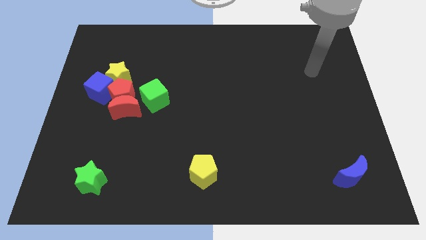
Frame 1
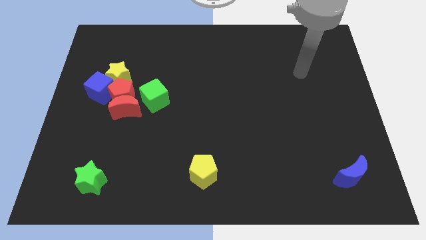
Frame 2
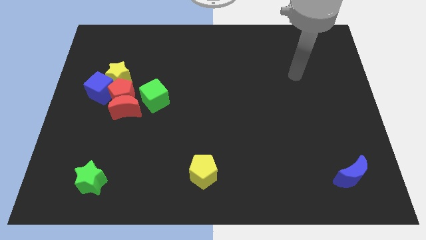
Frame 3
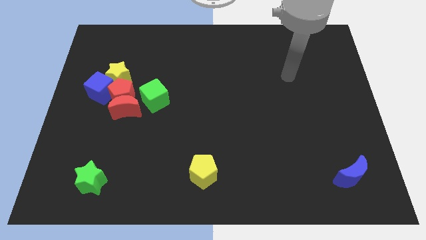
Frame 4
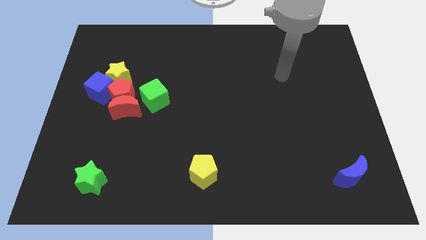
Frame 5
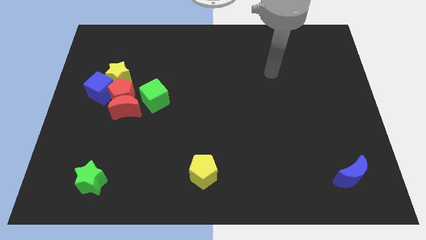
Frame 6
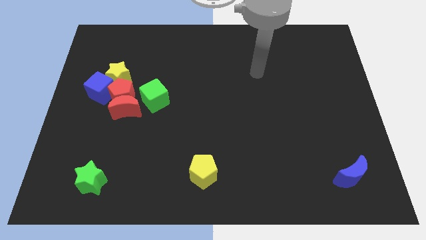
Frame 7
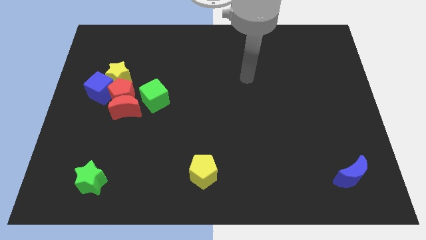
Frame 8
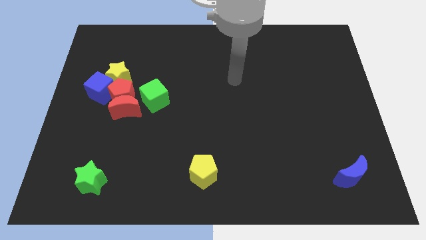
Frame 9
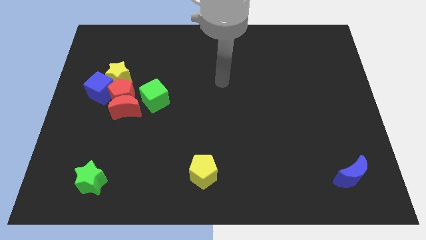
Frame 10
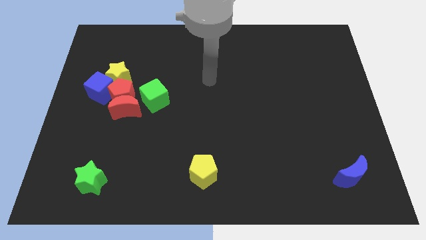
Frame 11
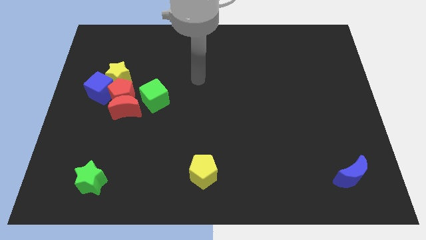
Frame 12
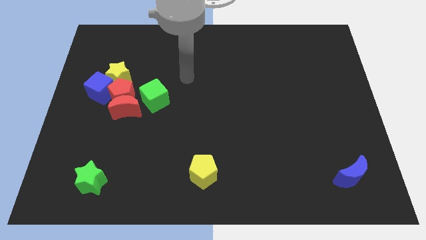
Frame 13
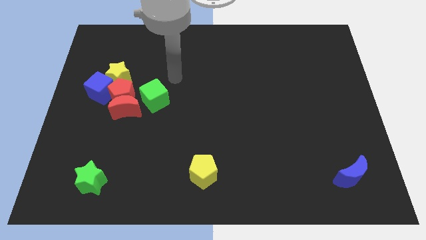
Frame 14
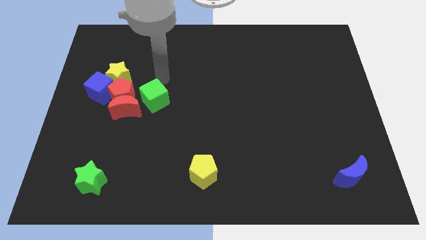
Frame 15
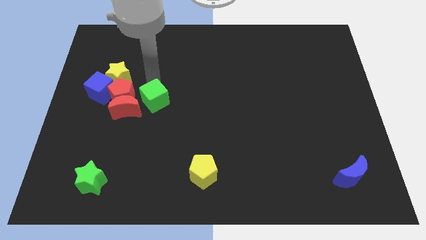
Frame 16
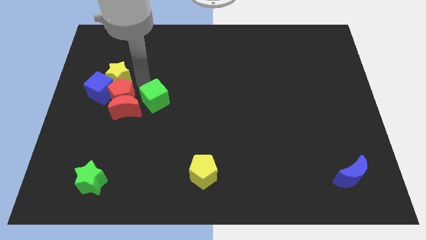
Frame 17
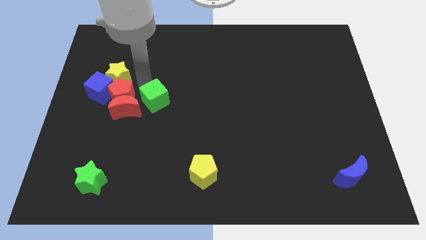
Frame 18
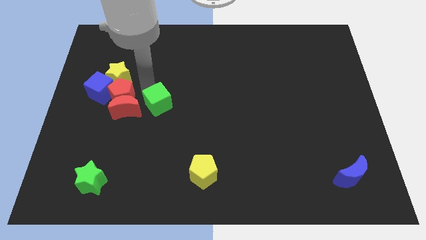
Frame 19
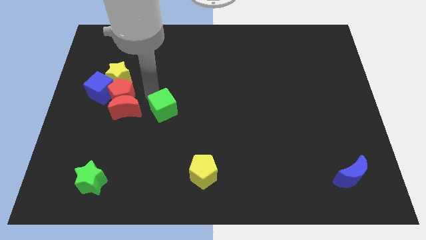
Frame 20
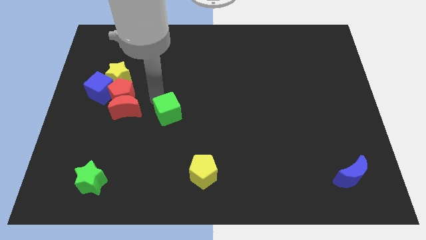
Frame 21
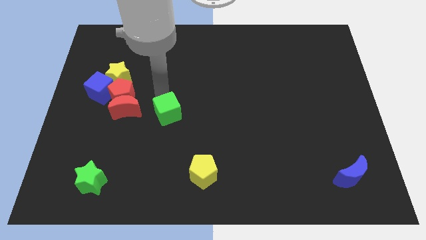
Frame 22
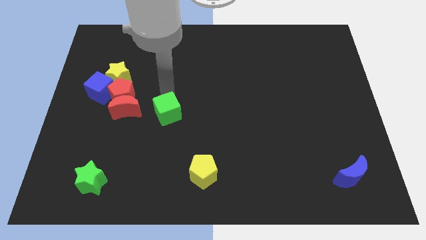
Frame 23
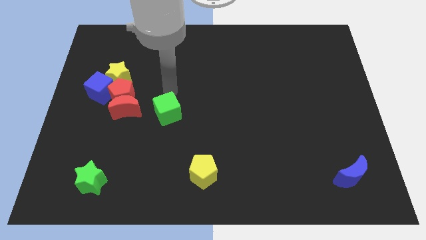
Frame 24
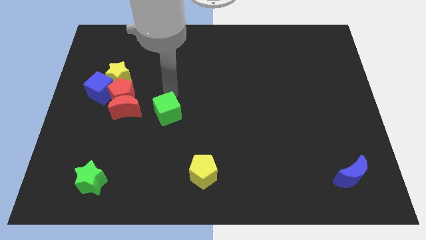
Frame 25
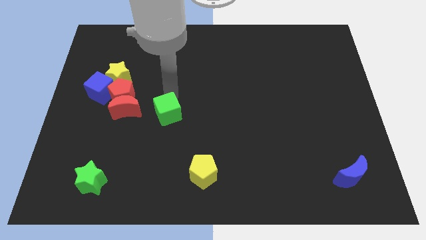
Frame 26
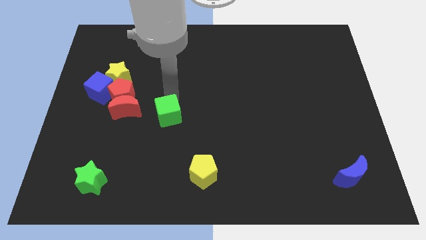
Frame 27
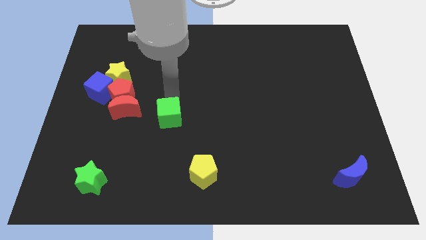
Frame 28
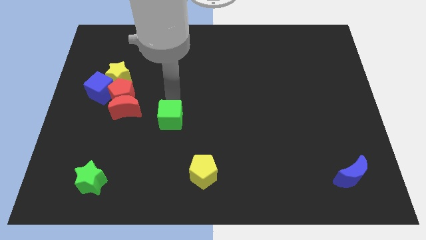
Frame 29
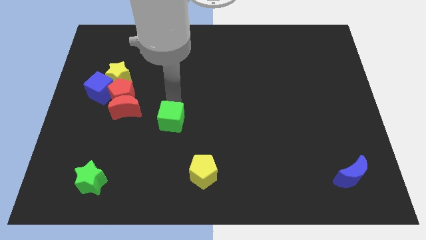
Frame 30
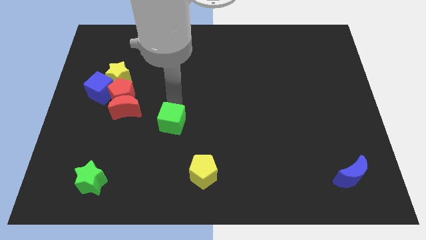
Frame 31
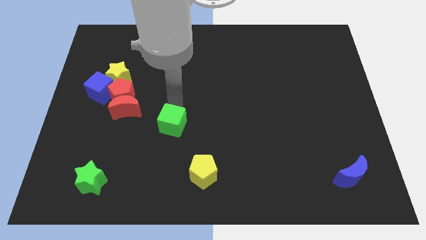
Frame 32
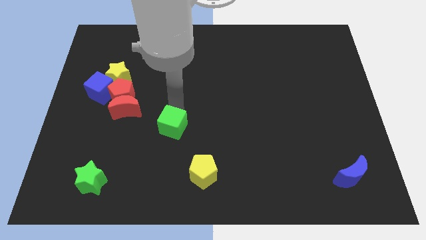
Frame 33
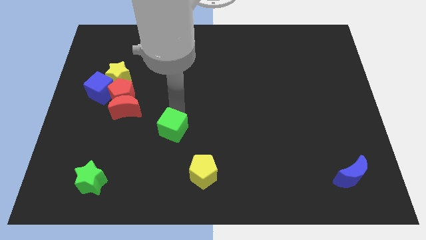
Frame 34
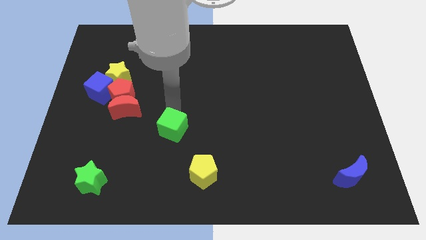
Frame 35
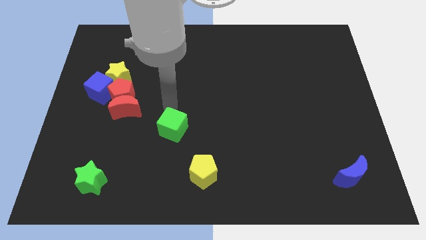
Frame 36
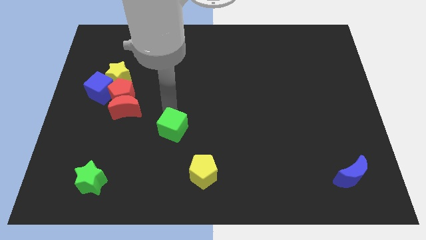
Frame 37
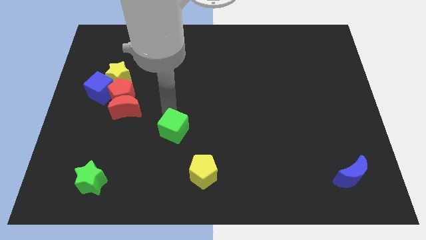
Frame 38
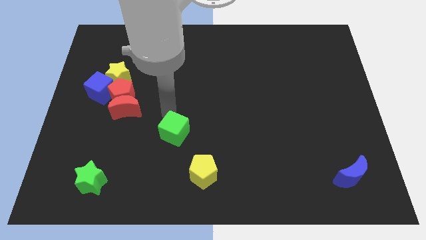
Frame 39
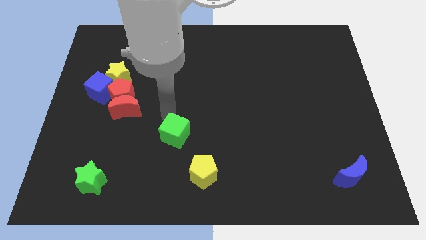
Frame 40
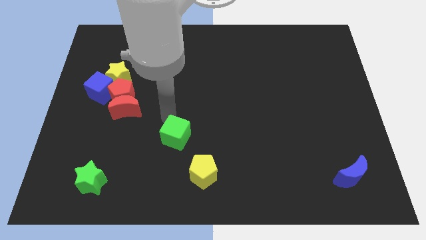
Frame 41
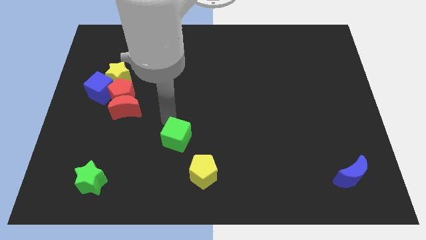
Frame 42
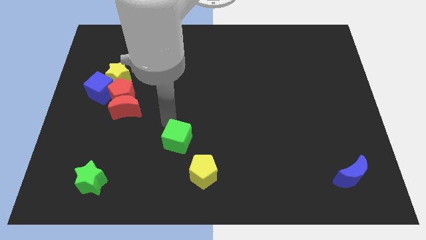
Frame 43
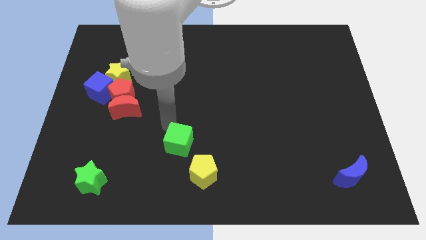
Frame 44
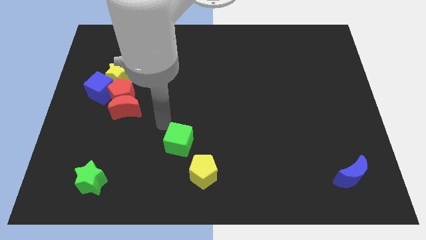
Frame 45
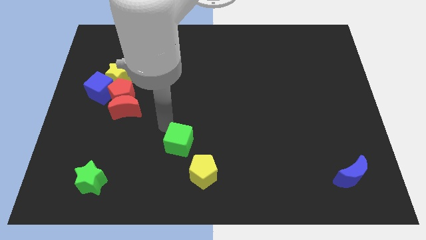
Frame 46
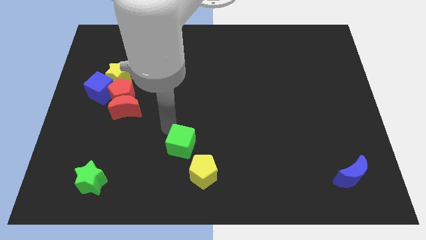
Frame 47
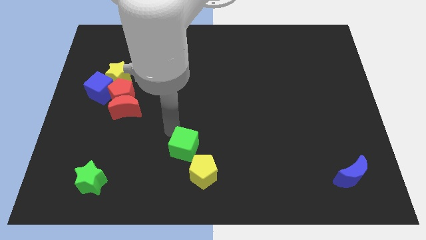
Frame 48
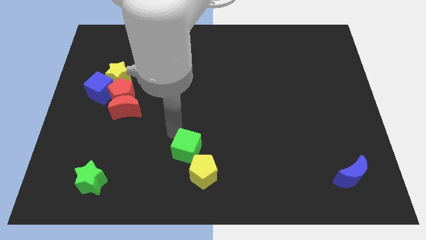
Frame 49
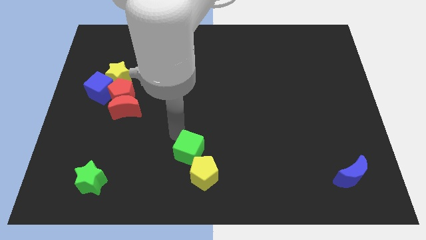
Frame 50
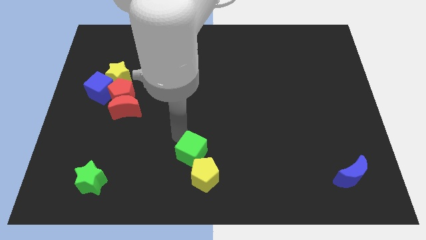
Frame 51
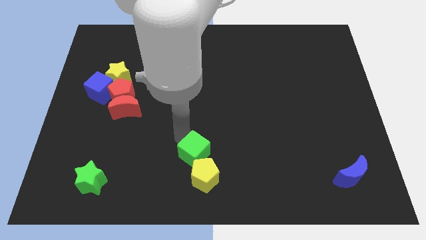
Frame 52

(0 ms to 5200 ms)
push the green cube to the yellow pentagon

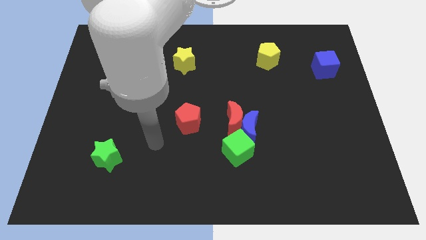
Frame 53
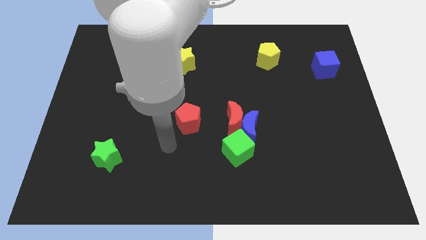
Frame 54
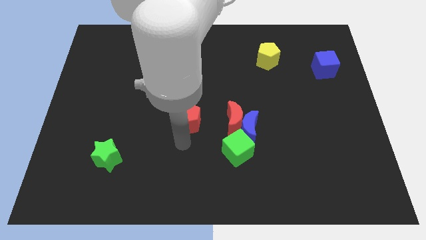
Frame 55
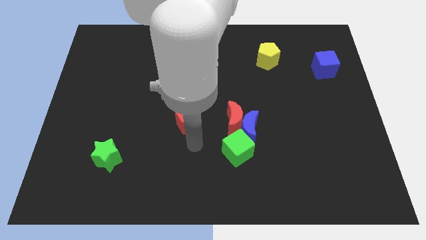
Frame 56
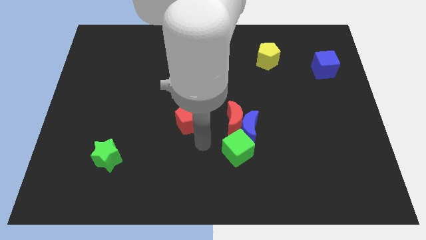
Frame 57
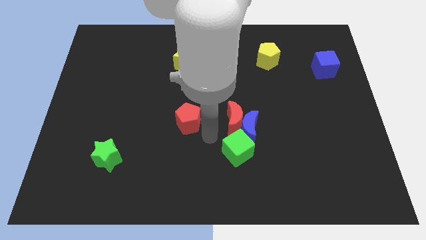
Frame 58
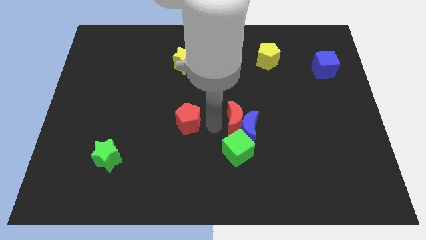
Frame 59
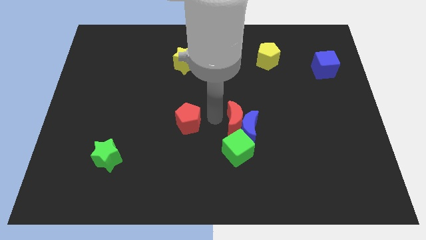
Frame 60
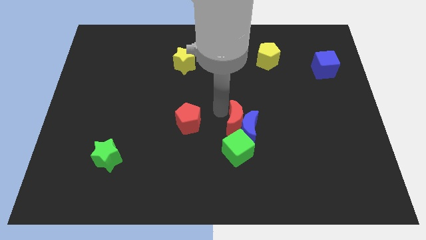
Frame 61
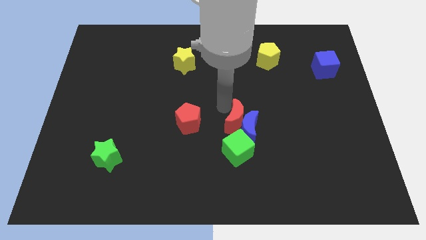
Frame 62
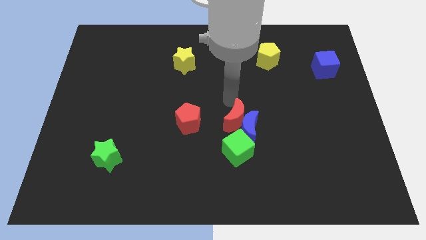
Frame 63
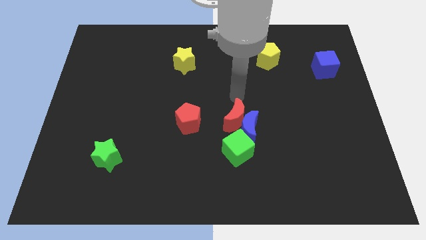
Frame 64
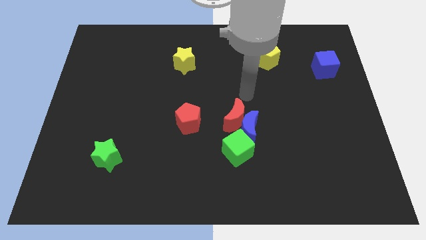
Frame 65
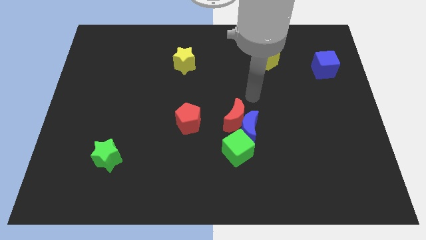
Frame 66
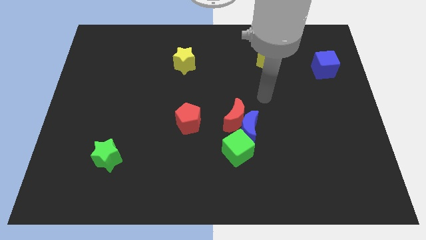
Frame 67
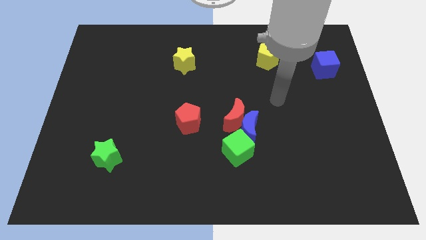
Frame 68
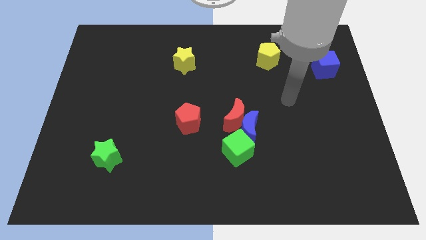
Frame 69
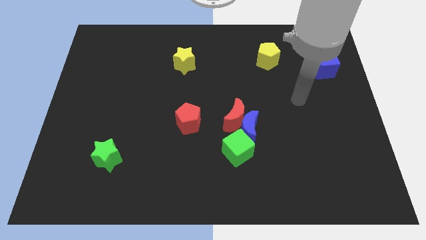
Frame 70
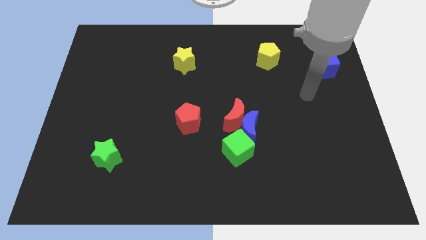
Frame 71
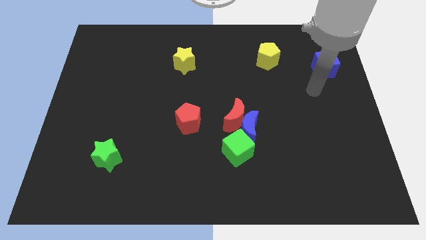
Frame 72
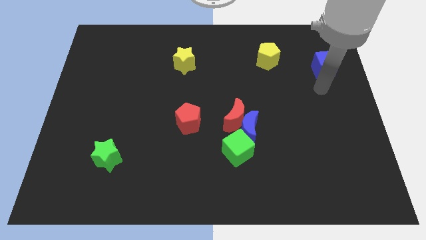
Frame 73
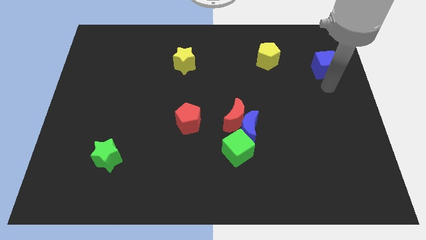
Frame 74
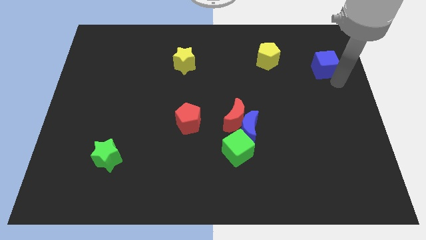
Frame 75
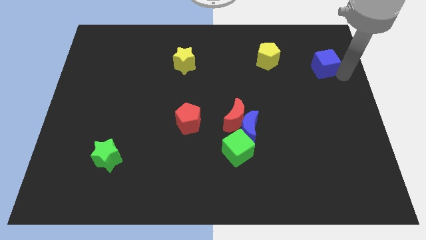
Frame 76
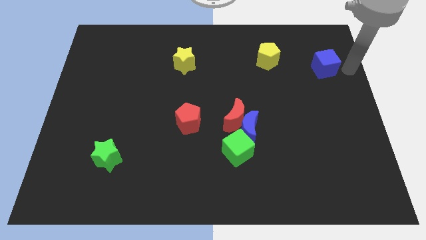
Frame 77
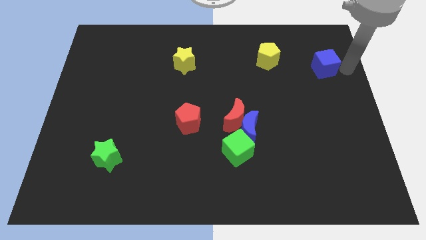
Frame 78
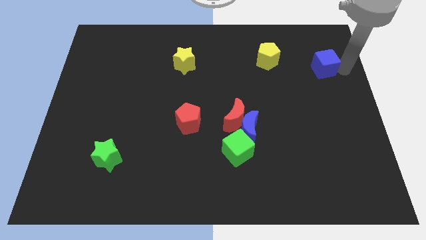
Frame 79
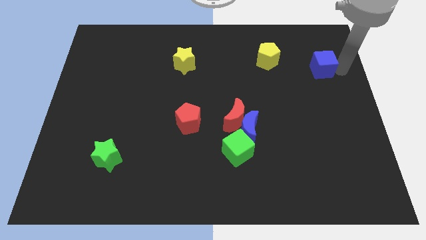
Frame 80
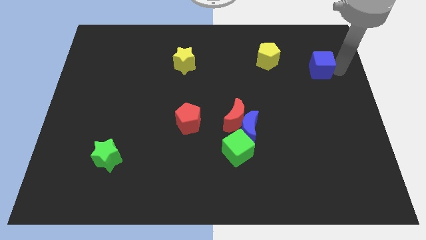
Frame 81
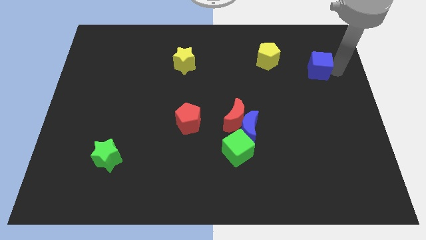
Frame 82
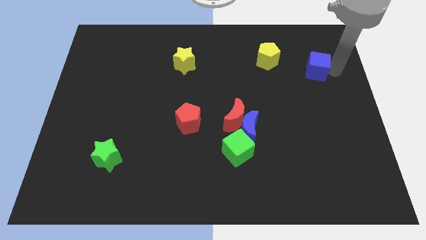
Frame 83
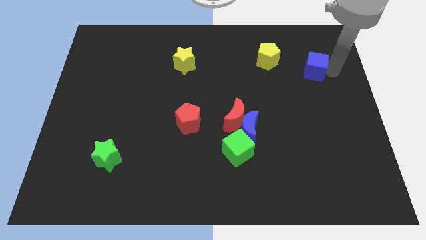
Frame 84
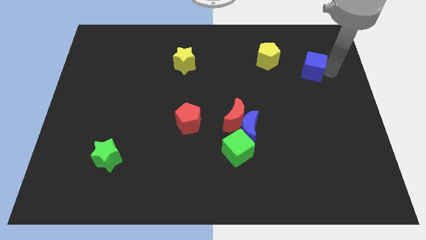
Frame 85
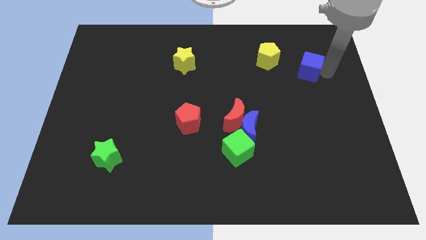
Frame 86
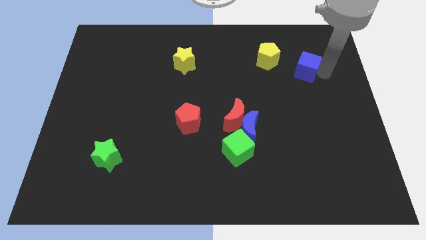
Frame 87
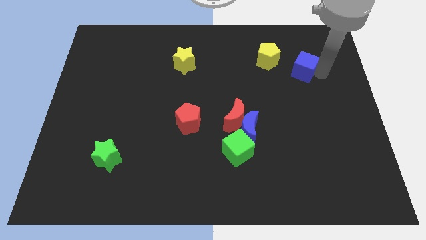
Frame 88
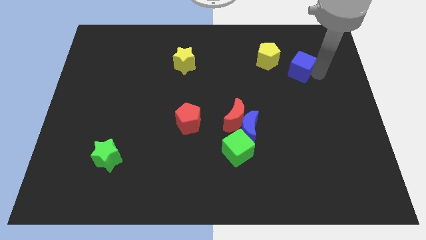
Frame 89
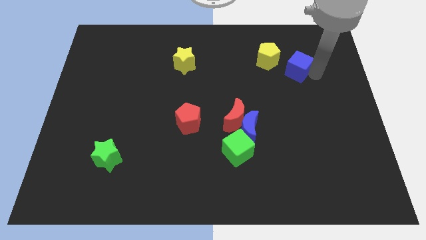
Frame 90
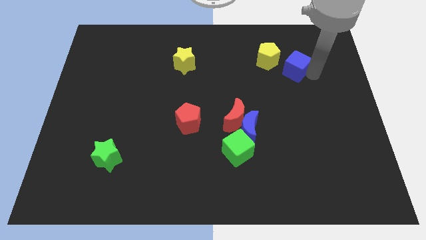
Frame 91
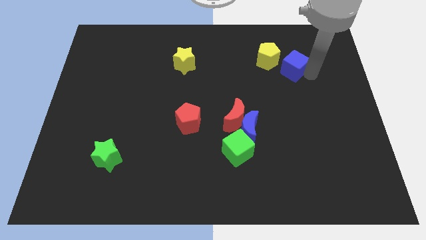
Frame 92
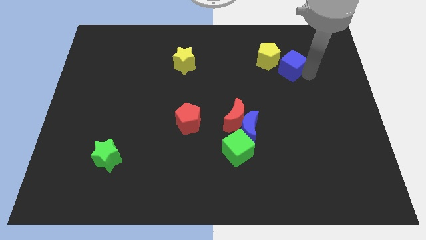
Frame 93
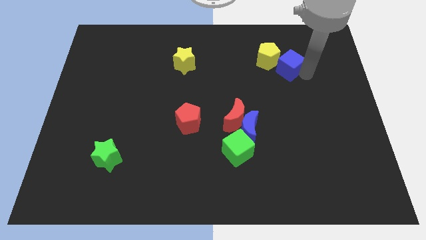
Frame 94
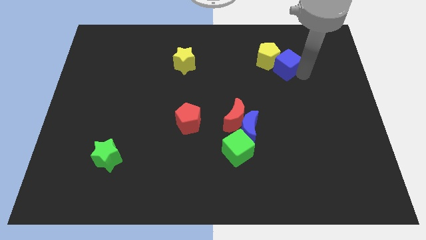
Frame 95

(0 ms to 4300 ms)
push the blue cube close to the yellow pentagon
